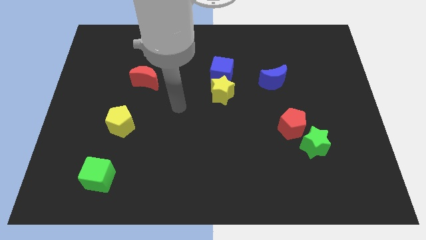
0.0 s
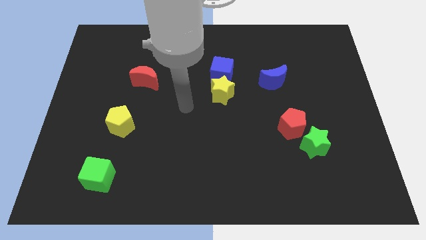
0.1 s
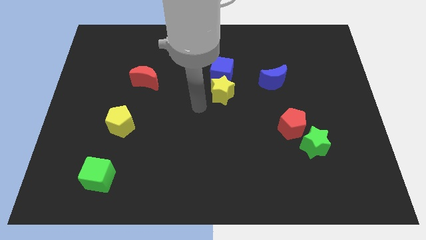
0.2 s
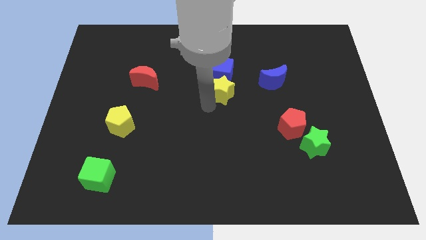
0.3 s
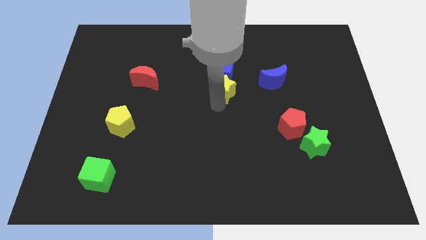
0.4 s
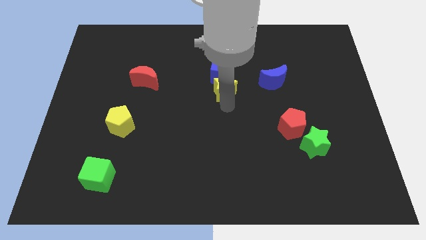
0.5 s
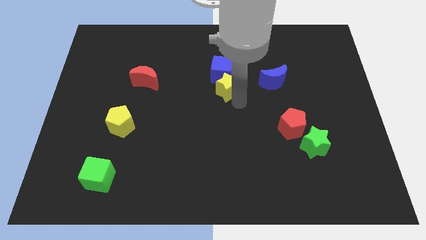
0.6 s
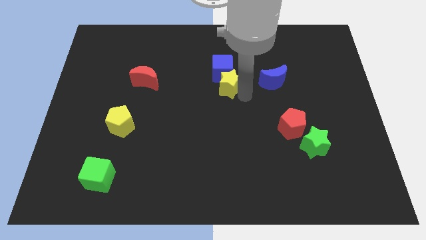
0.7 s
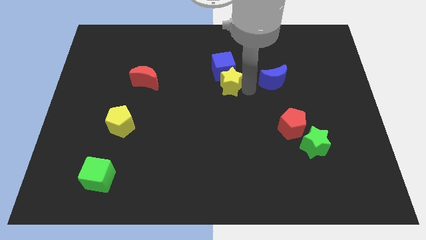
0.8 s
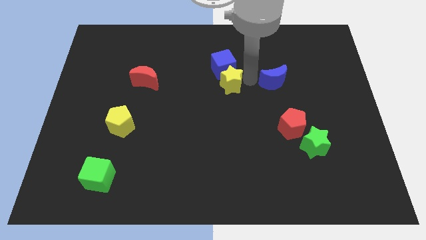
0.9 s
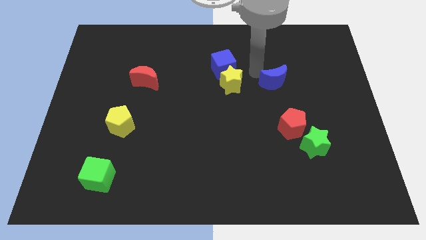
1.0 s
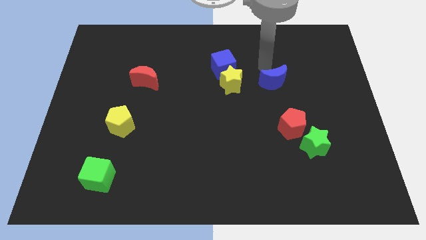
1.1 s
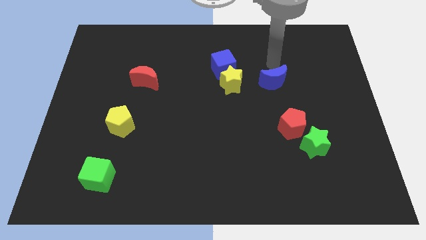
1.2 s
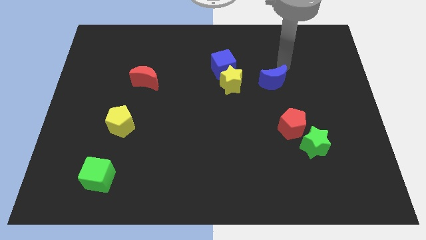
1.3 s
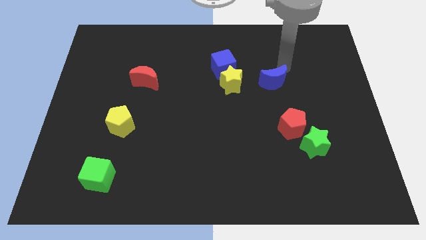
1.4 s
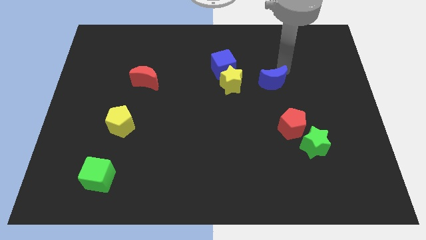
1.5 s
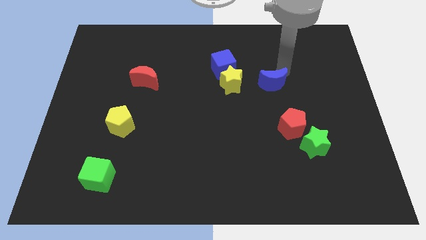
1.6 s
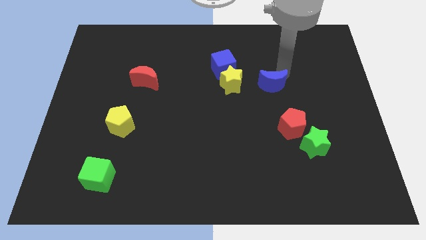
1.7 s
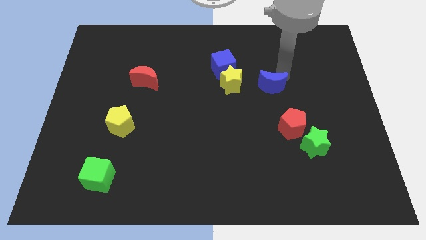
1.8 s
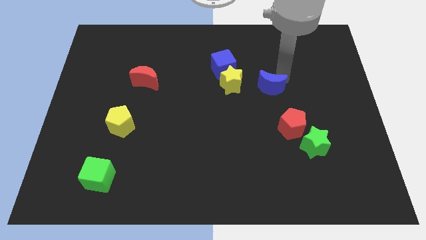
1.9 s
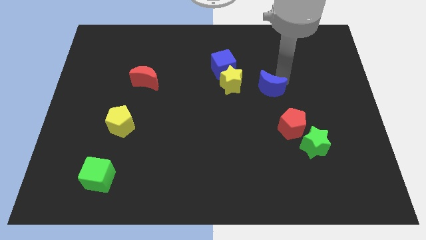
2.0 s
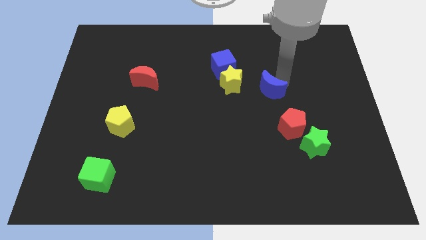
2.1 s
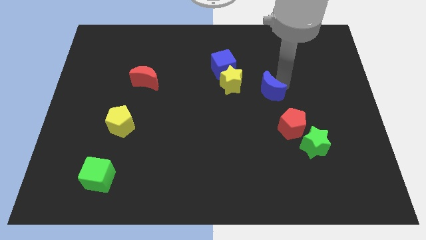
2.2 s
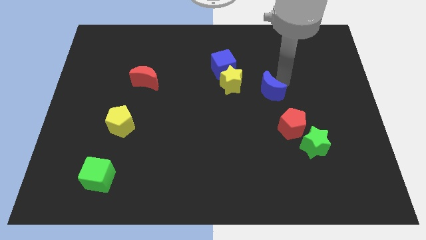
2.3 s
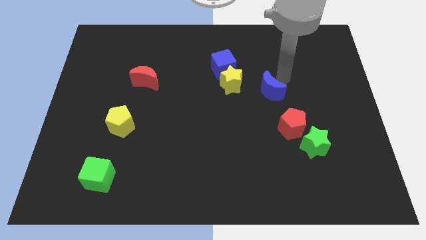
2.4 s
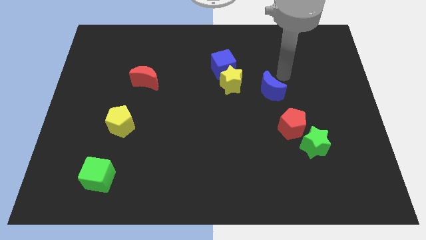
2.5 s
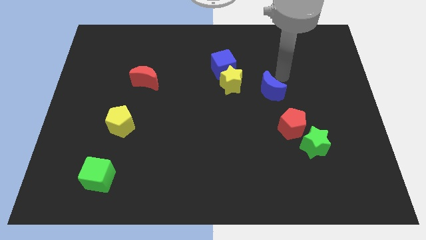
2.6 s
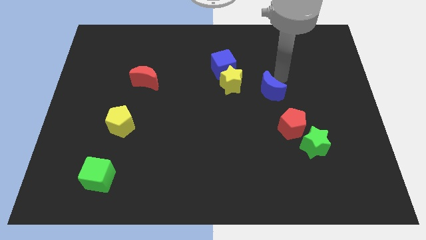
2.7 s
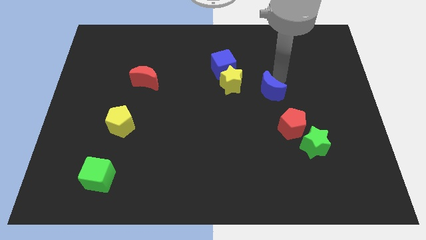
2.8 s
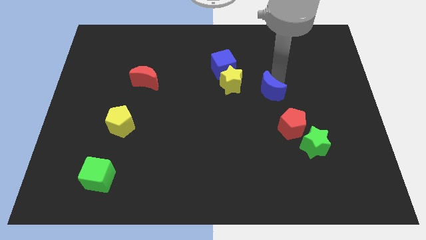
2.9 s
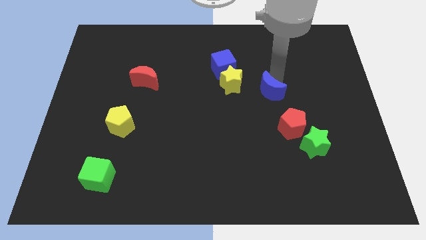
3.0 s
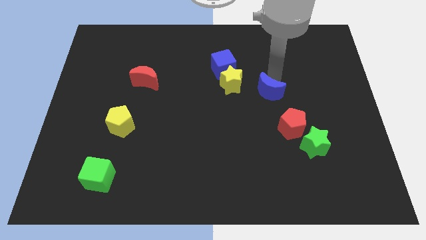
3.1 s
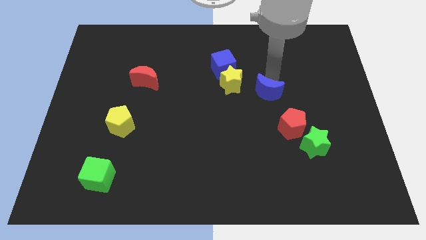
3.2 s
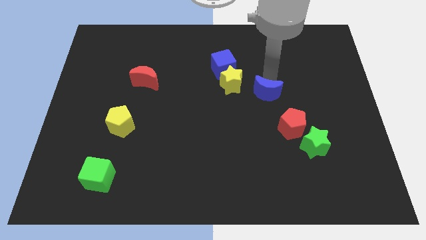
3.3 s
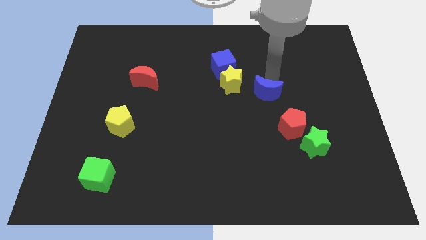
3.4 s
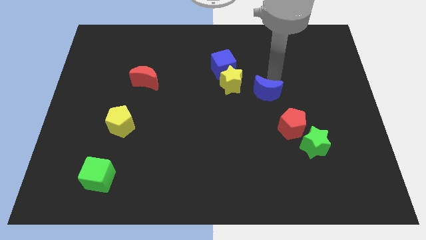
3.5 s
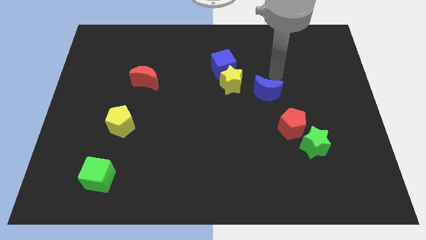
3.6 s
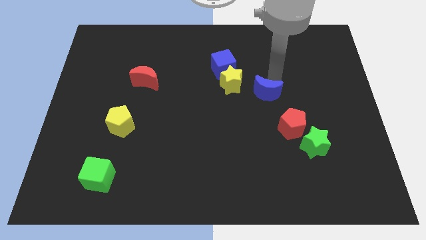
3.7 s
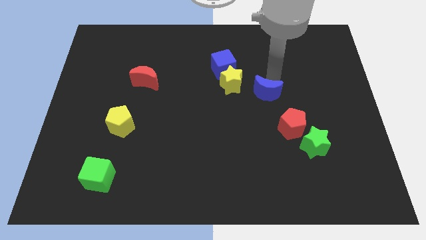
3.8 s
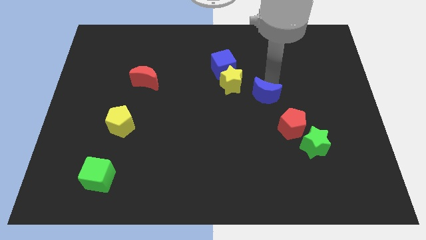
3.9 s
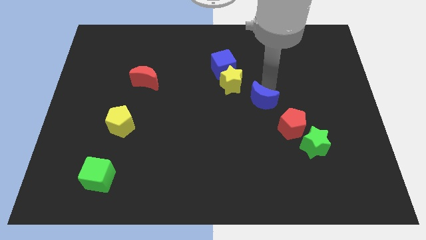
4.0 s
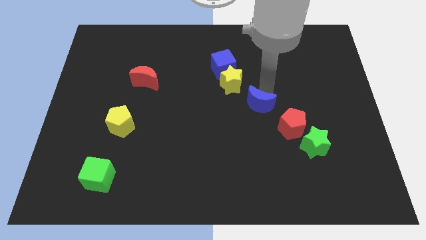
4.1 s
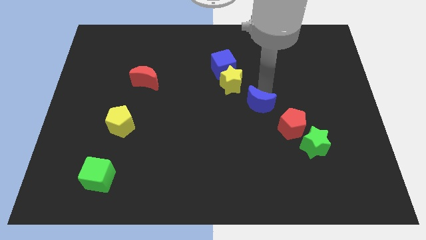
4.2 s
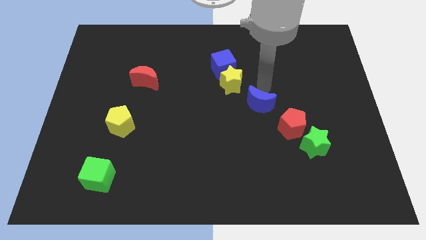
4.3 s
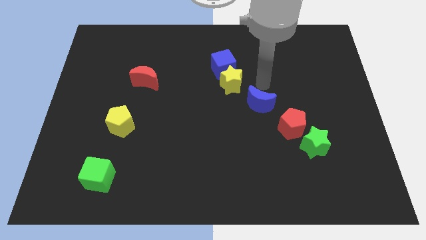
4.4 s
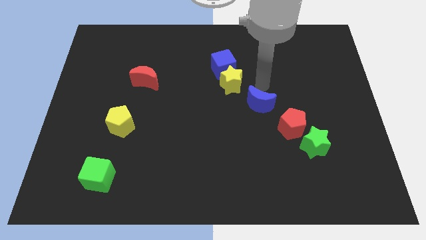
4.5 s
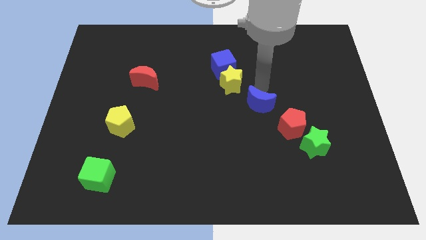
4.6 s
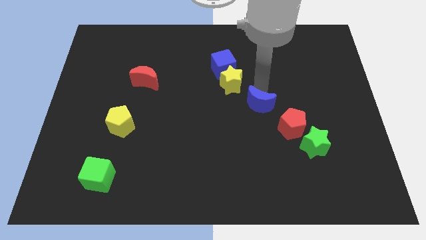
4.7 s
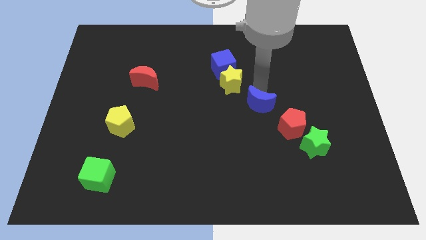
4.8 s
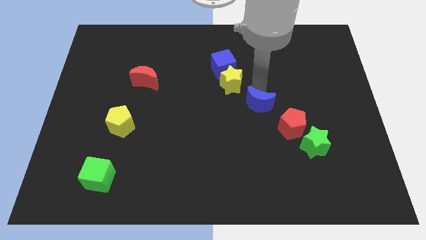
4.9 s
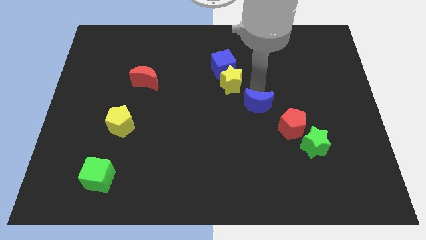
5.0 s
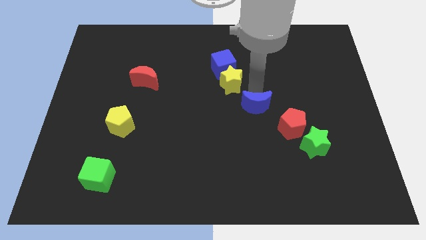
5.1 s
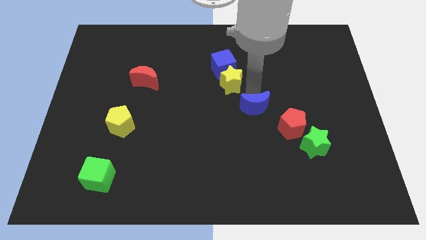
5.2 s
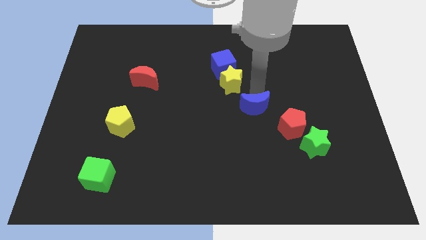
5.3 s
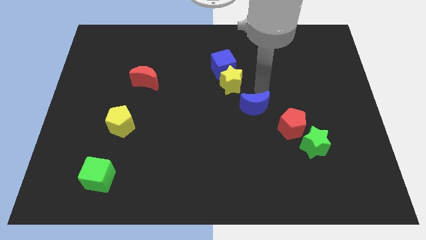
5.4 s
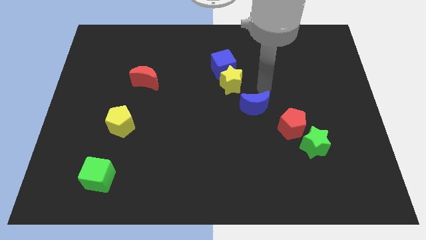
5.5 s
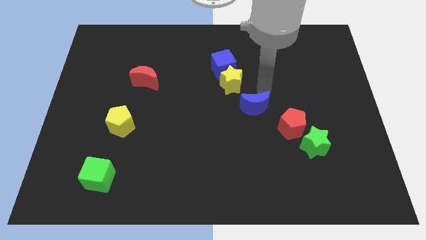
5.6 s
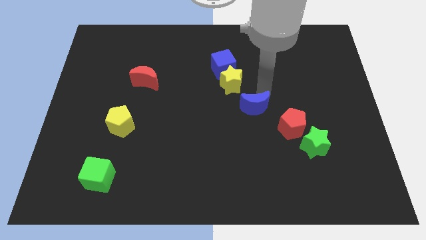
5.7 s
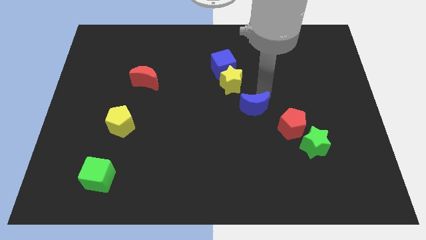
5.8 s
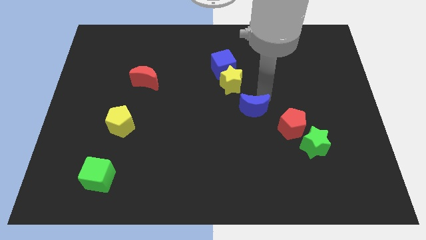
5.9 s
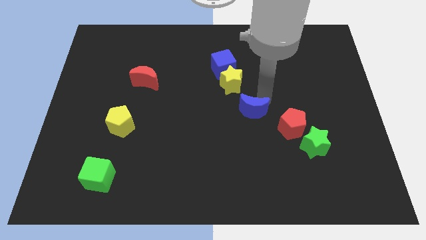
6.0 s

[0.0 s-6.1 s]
slide the blue moon to the left of the red pentagon

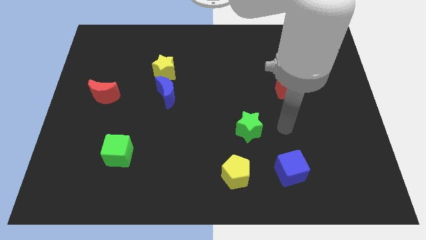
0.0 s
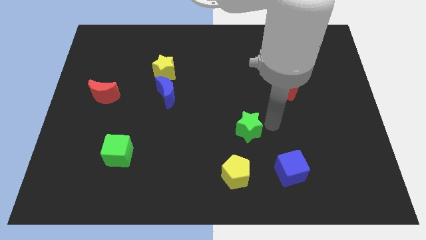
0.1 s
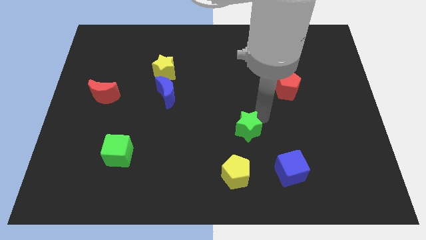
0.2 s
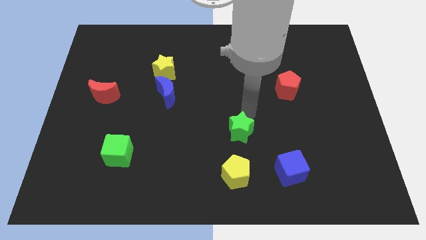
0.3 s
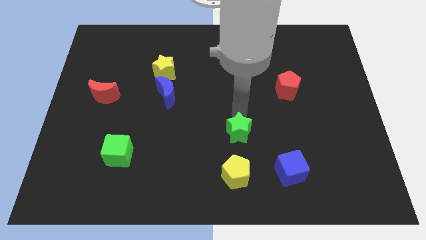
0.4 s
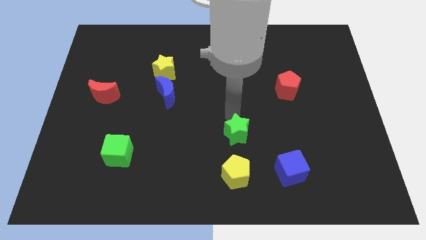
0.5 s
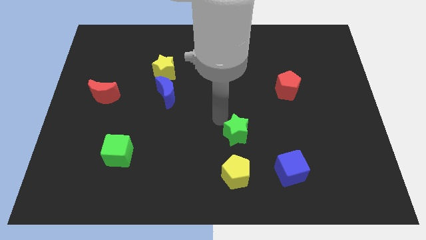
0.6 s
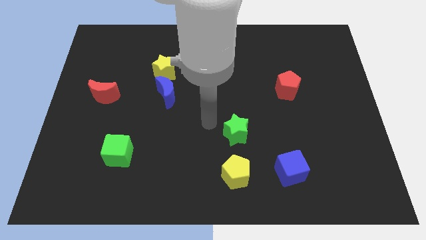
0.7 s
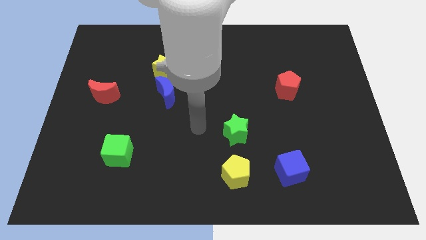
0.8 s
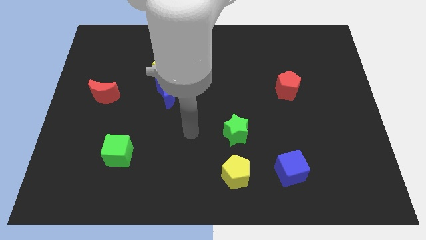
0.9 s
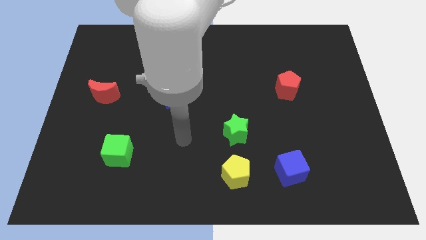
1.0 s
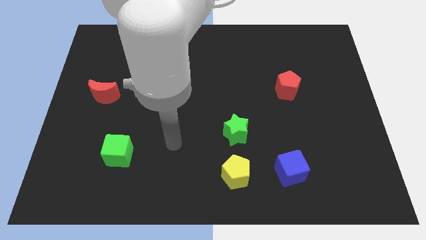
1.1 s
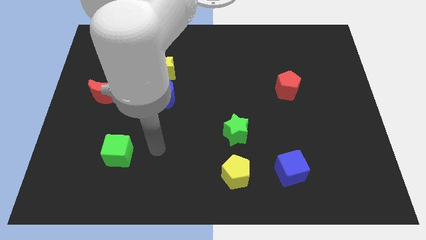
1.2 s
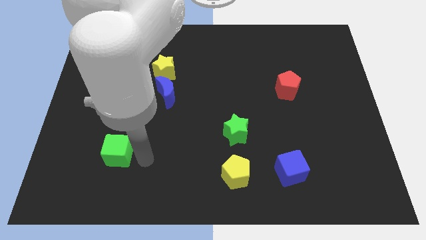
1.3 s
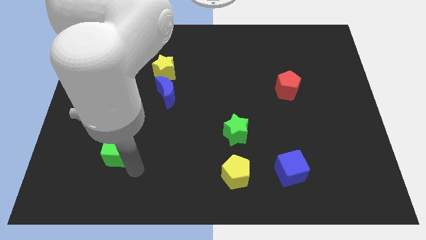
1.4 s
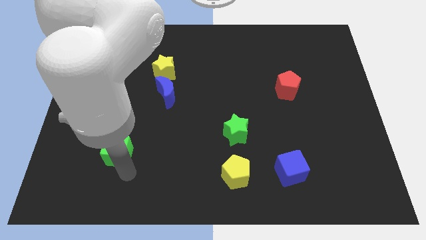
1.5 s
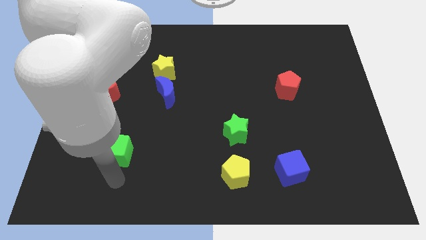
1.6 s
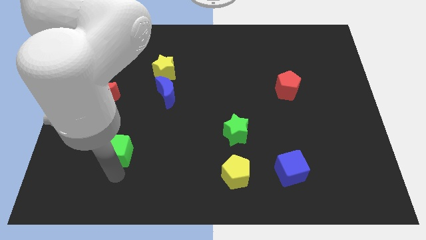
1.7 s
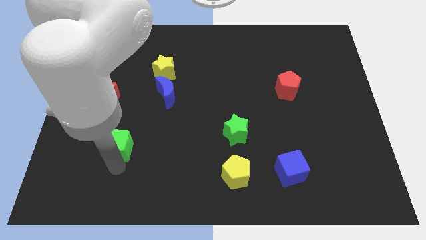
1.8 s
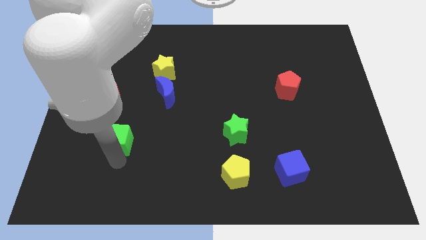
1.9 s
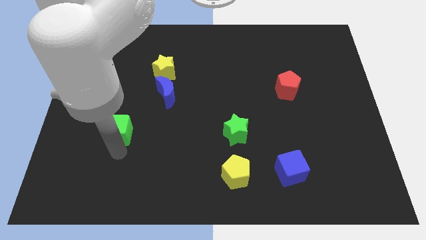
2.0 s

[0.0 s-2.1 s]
put the green cube to the bottom right side of the red moon
